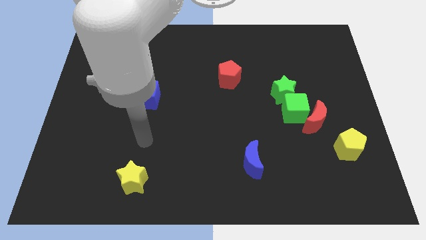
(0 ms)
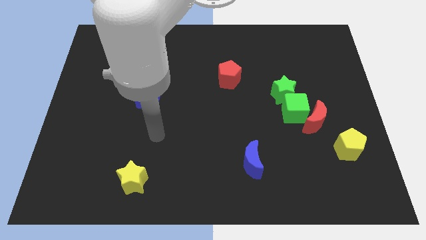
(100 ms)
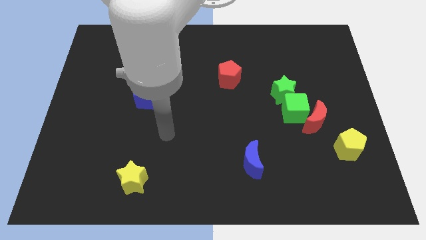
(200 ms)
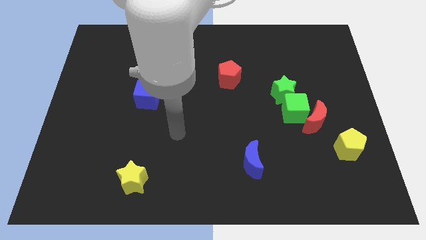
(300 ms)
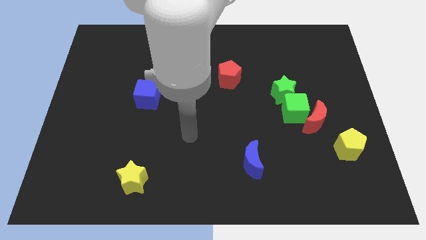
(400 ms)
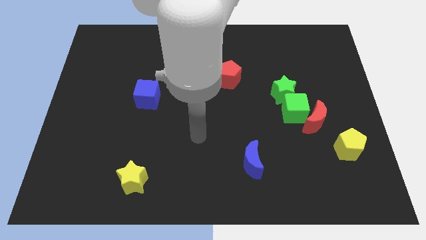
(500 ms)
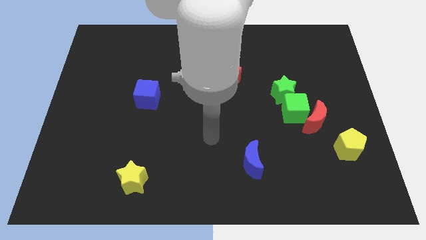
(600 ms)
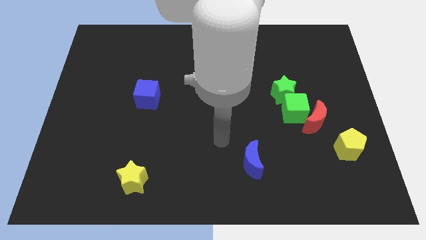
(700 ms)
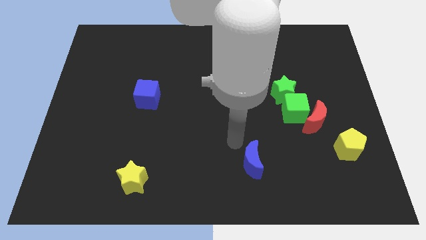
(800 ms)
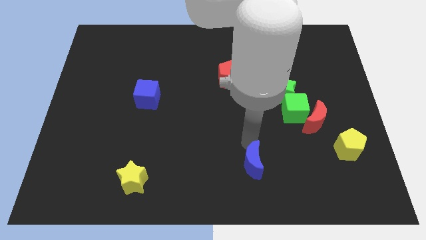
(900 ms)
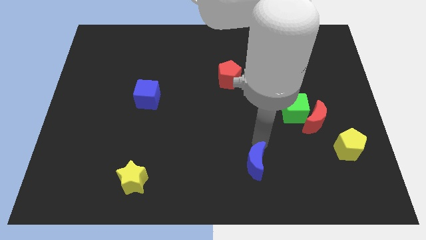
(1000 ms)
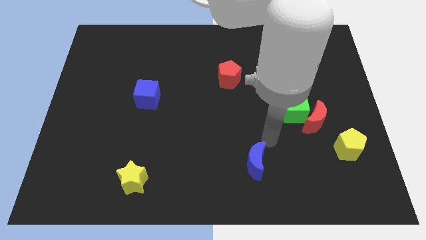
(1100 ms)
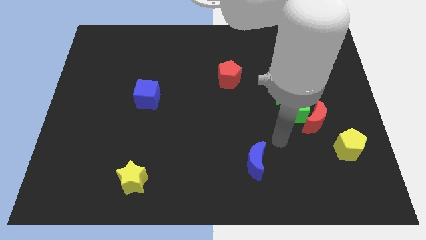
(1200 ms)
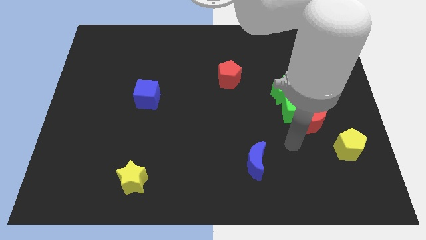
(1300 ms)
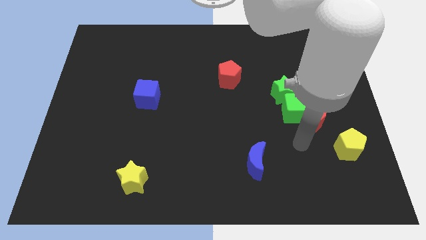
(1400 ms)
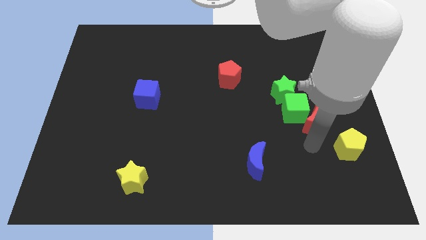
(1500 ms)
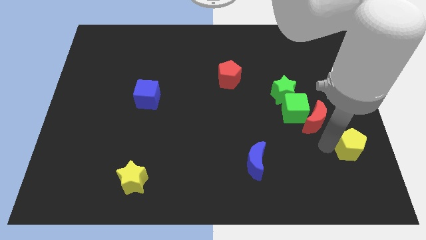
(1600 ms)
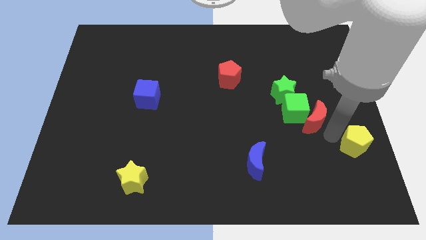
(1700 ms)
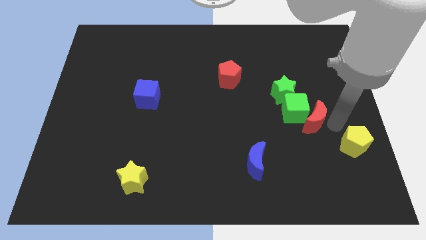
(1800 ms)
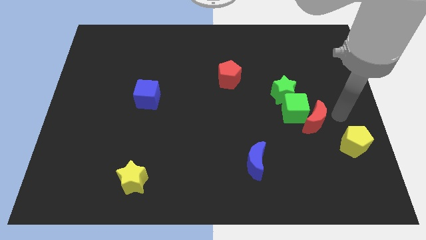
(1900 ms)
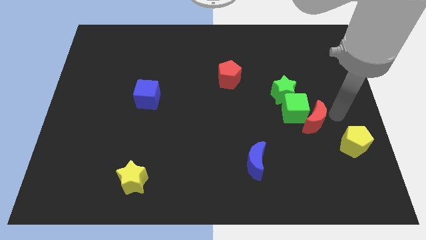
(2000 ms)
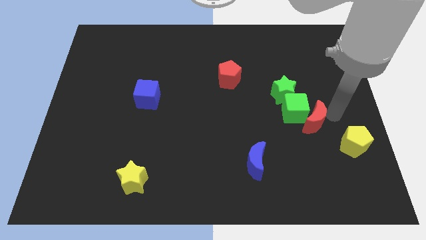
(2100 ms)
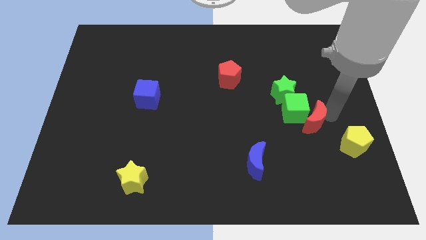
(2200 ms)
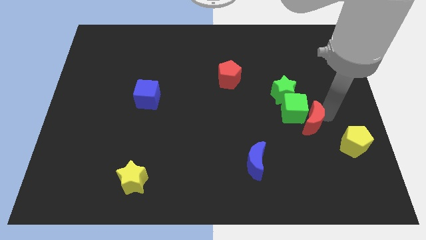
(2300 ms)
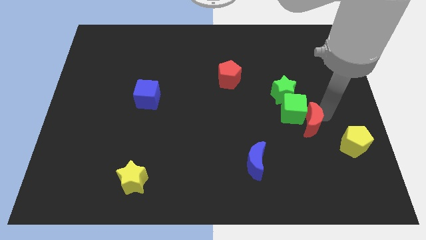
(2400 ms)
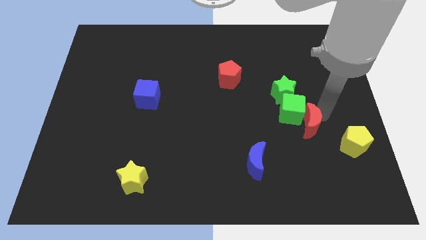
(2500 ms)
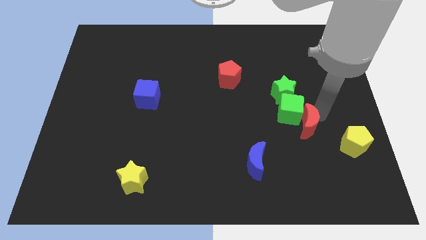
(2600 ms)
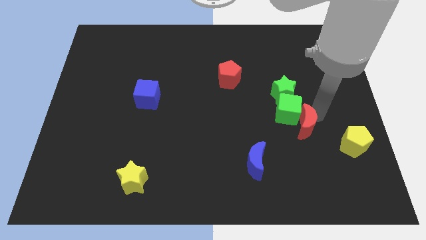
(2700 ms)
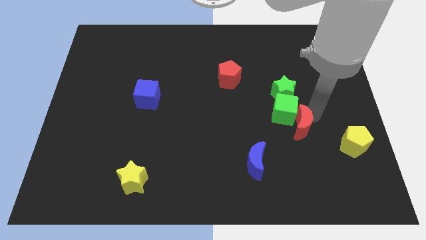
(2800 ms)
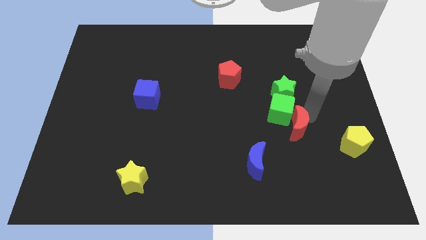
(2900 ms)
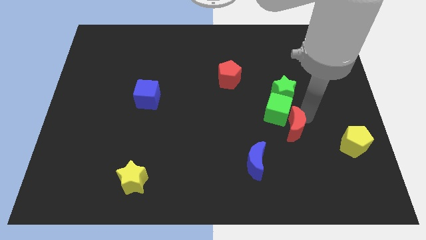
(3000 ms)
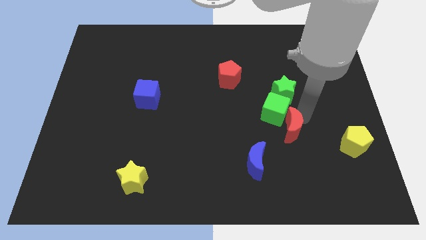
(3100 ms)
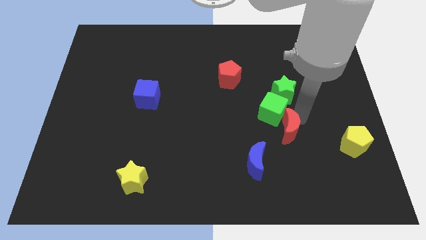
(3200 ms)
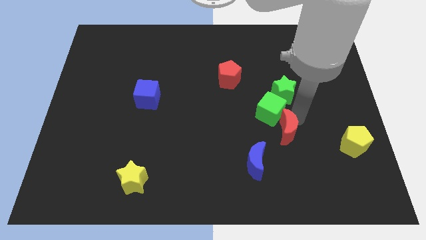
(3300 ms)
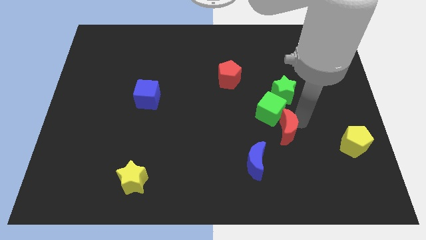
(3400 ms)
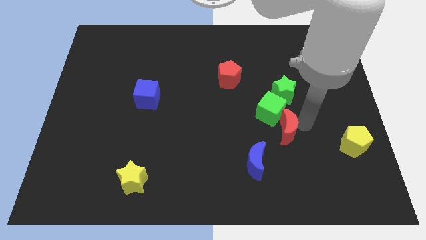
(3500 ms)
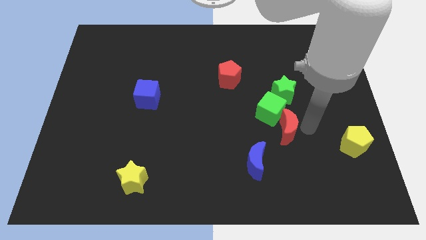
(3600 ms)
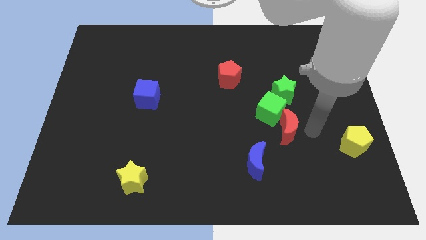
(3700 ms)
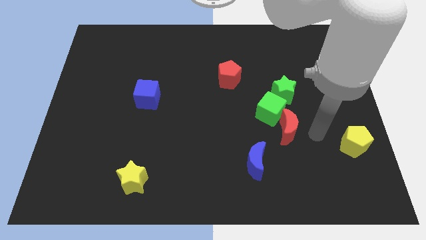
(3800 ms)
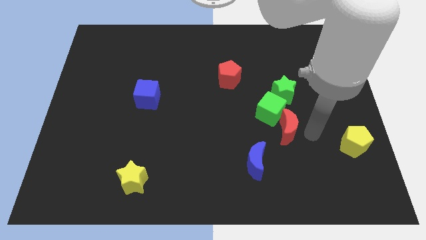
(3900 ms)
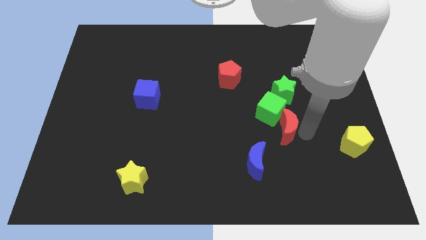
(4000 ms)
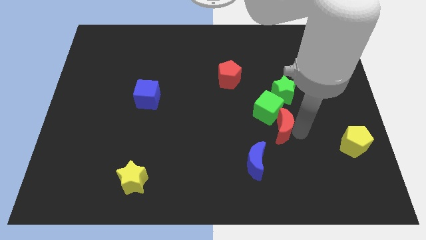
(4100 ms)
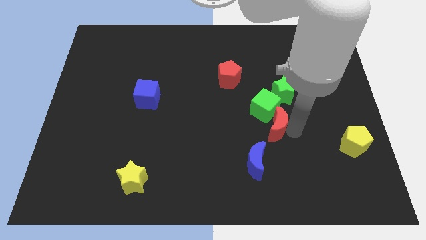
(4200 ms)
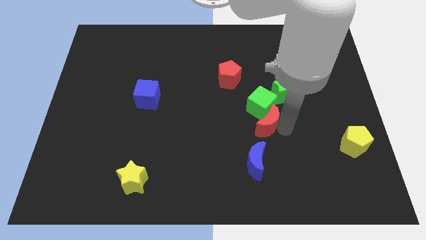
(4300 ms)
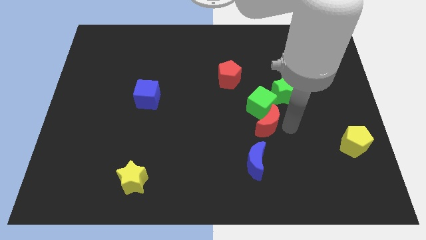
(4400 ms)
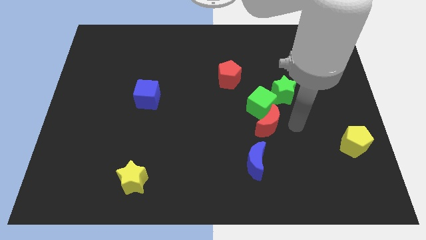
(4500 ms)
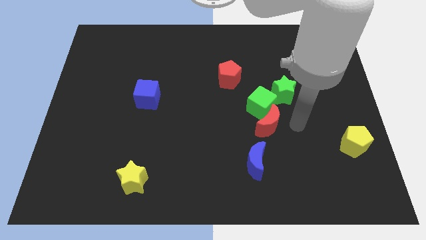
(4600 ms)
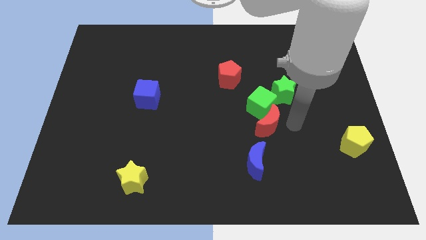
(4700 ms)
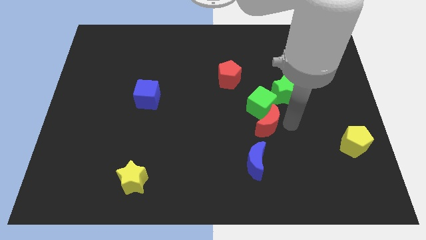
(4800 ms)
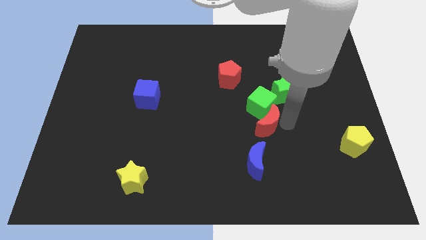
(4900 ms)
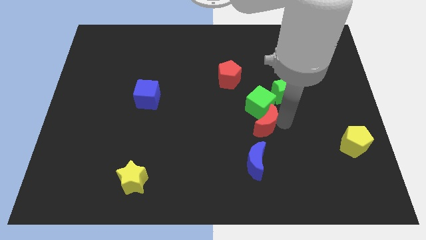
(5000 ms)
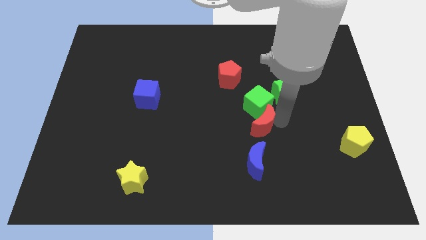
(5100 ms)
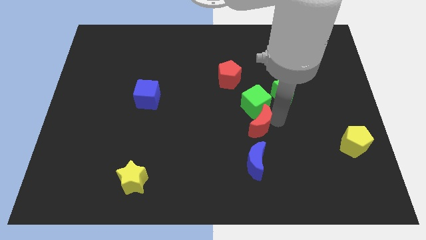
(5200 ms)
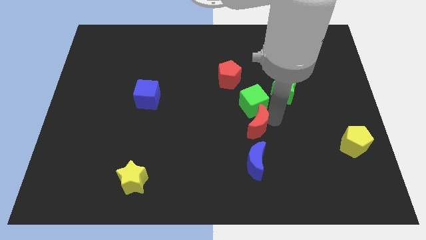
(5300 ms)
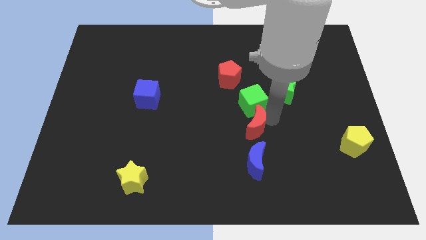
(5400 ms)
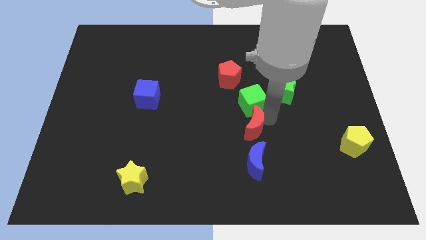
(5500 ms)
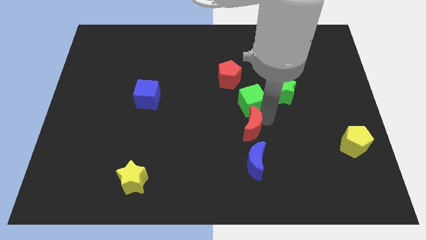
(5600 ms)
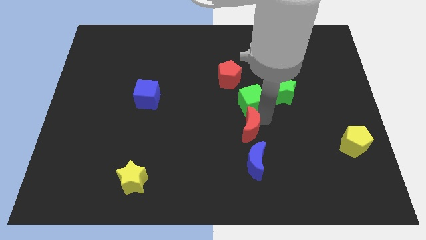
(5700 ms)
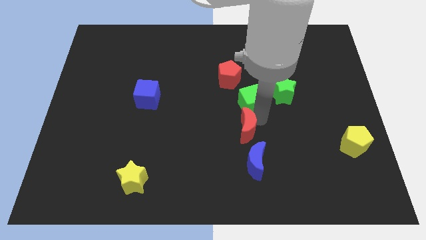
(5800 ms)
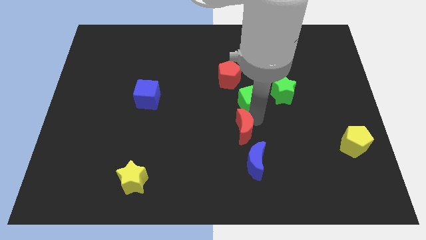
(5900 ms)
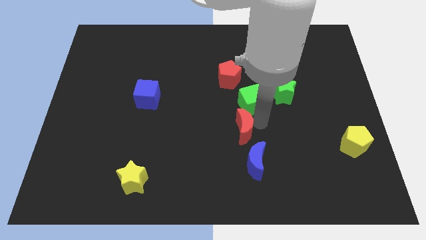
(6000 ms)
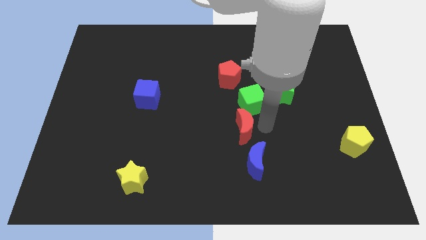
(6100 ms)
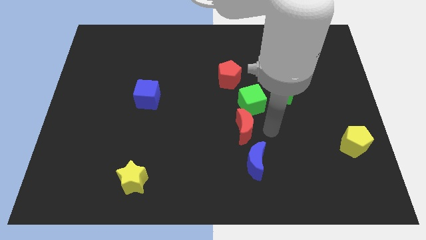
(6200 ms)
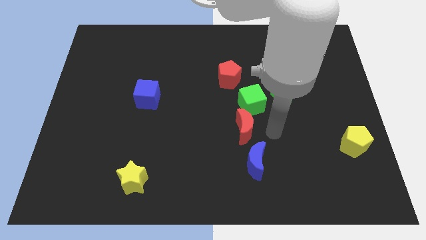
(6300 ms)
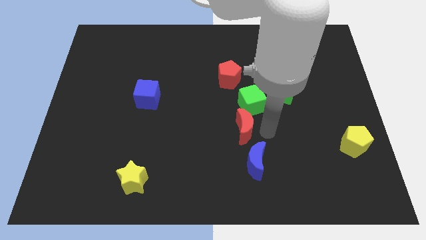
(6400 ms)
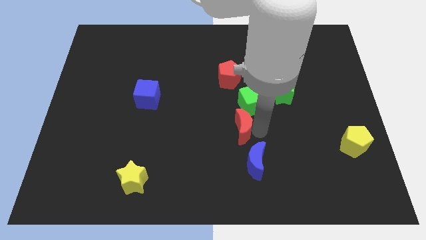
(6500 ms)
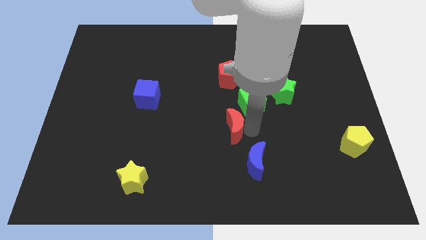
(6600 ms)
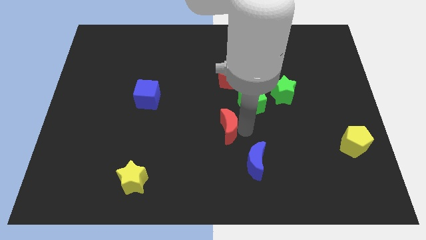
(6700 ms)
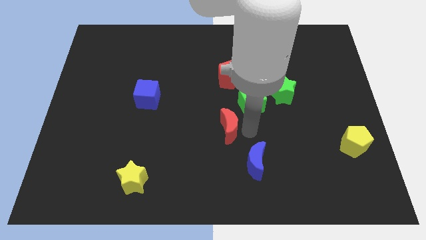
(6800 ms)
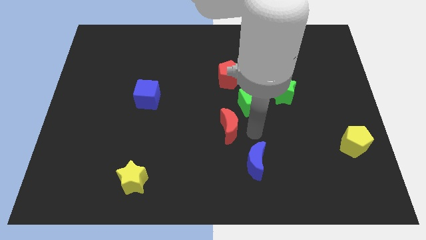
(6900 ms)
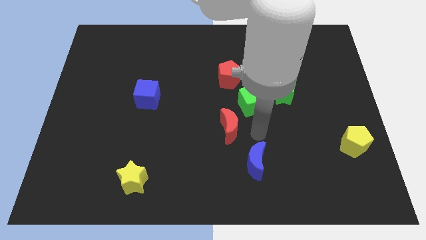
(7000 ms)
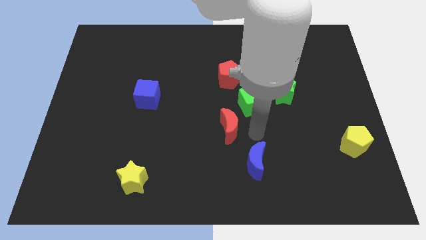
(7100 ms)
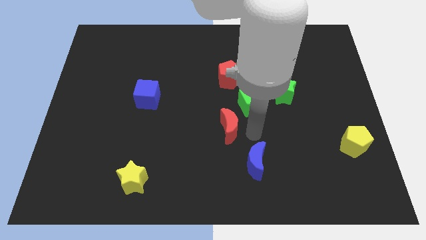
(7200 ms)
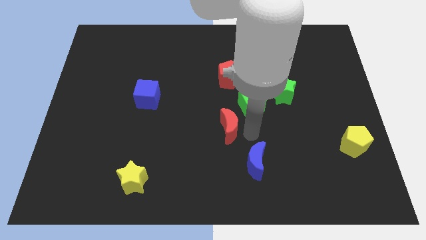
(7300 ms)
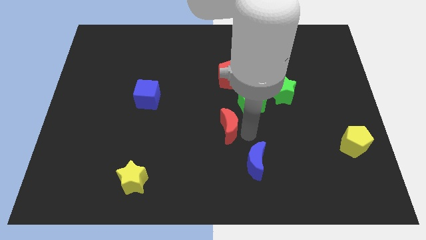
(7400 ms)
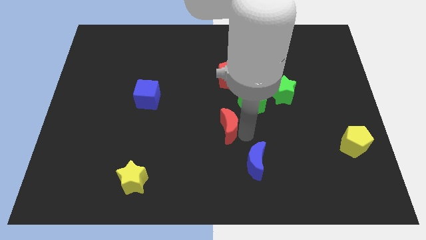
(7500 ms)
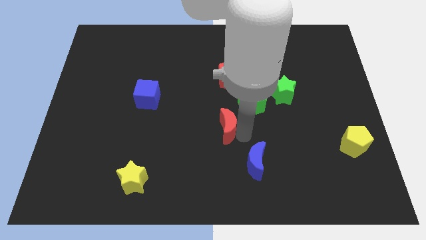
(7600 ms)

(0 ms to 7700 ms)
move the red moon left
